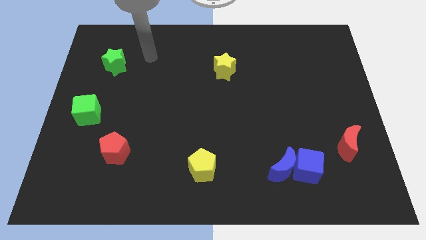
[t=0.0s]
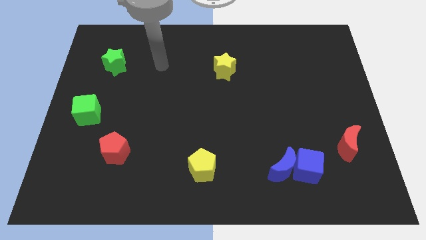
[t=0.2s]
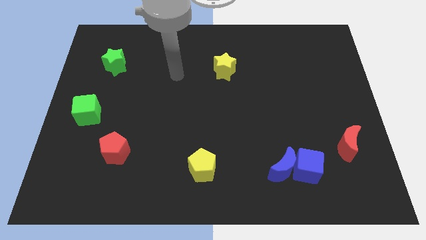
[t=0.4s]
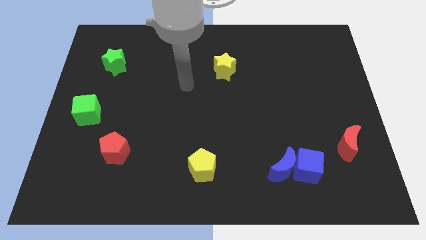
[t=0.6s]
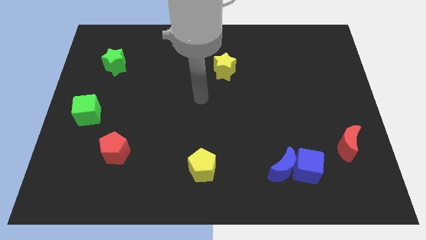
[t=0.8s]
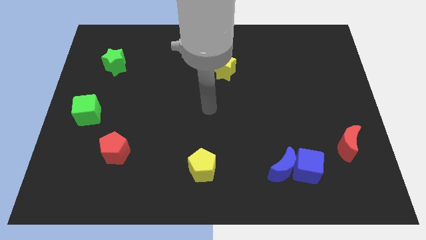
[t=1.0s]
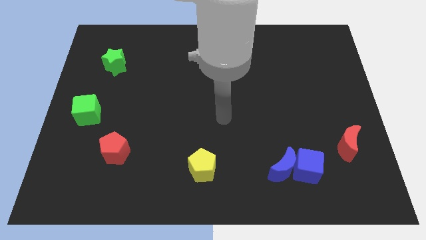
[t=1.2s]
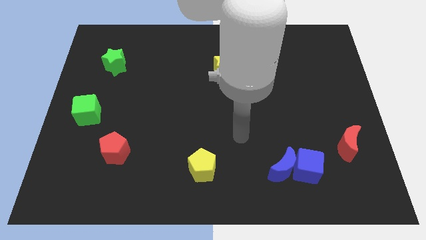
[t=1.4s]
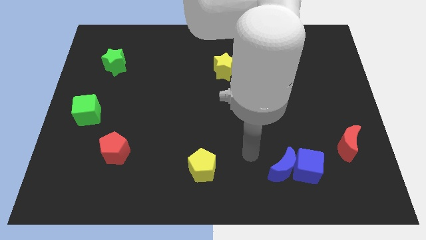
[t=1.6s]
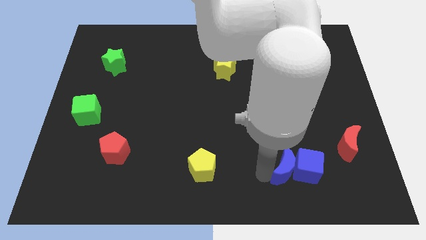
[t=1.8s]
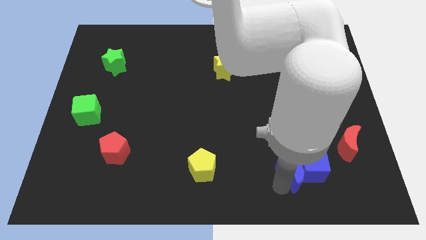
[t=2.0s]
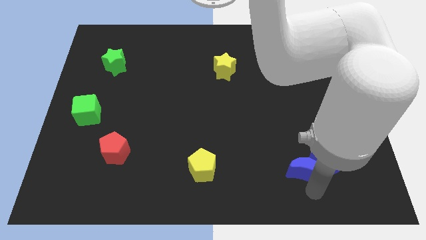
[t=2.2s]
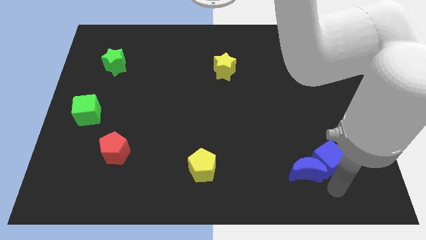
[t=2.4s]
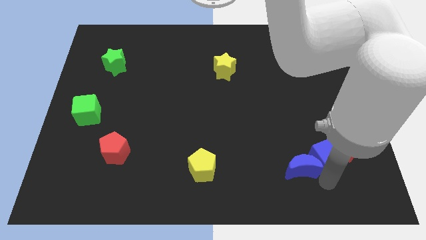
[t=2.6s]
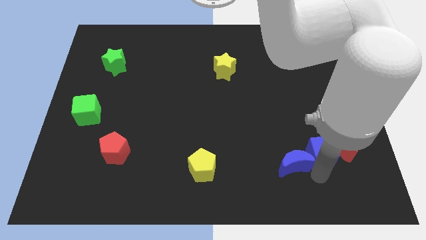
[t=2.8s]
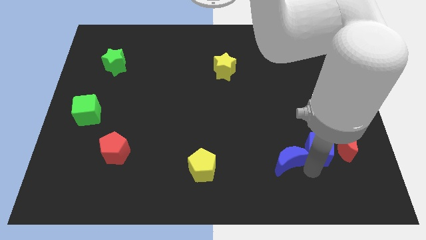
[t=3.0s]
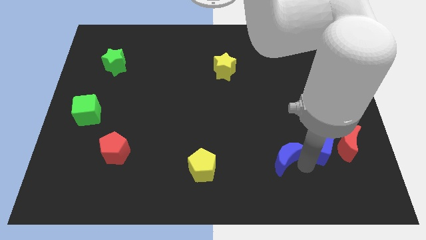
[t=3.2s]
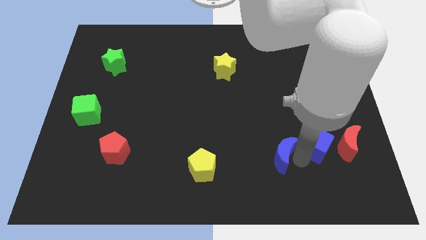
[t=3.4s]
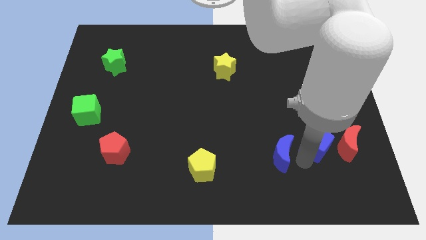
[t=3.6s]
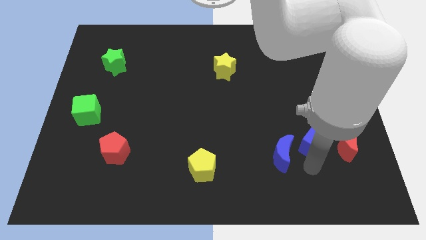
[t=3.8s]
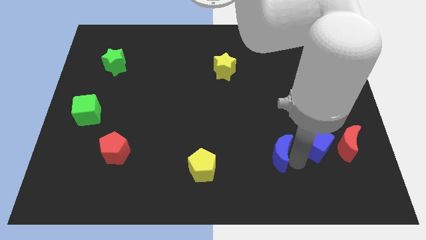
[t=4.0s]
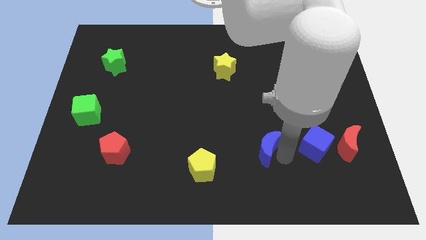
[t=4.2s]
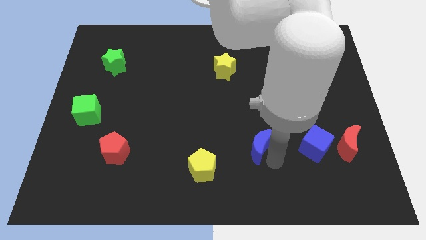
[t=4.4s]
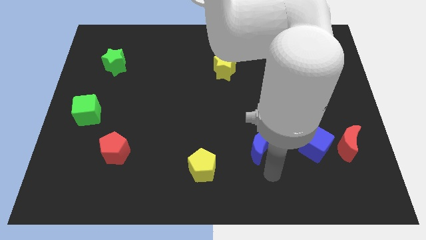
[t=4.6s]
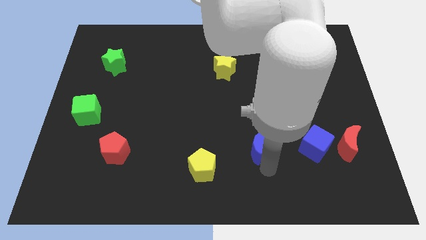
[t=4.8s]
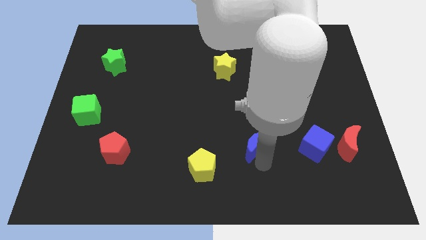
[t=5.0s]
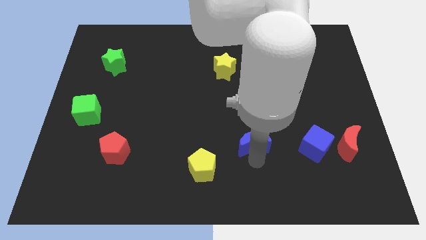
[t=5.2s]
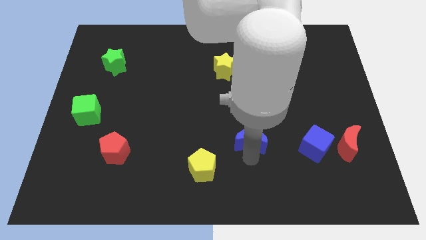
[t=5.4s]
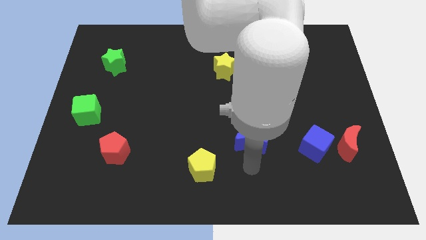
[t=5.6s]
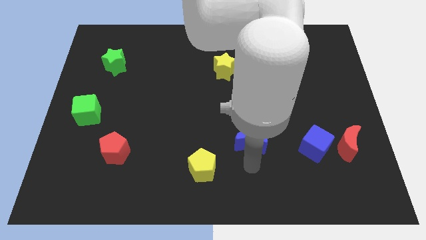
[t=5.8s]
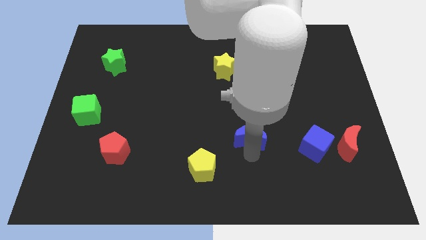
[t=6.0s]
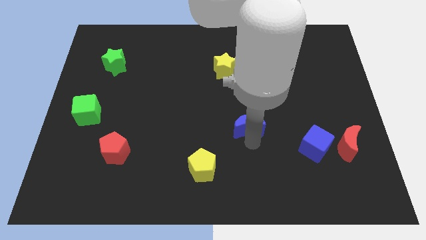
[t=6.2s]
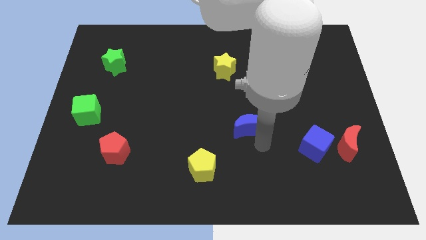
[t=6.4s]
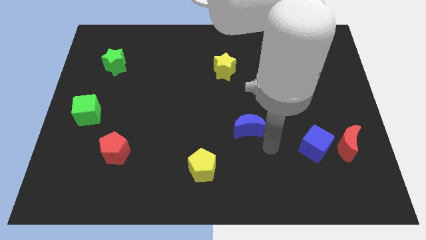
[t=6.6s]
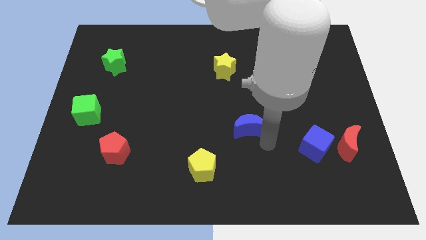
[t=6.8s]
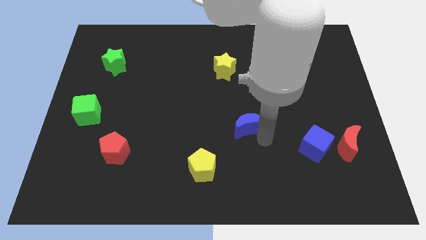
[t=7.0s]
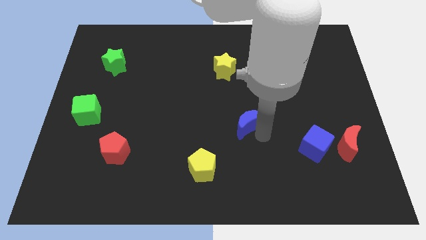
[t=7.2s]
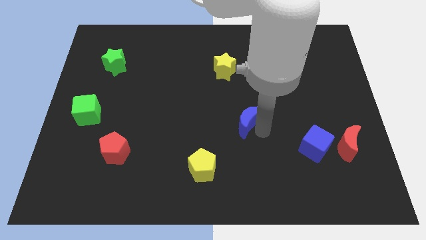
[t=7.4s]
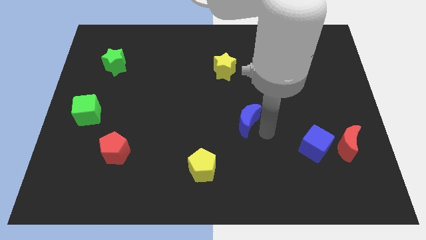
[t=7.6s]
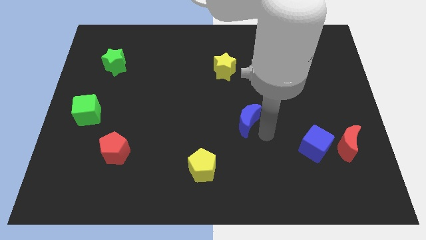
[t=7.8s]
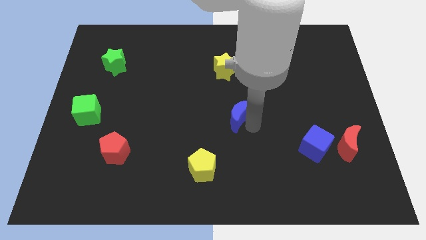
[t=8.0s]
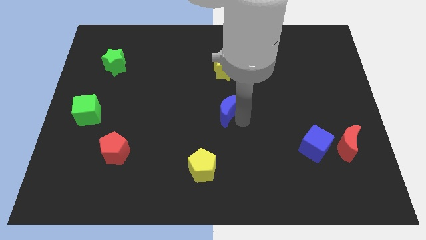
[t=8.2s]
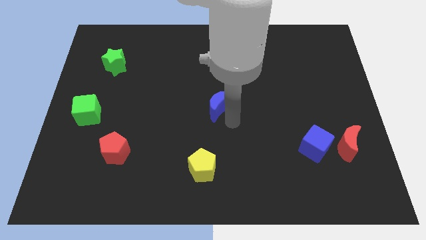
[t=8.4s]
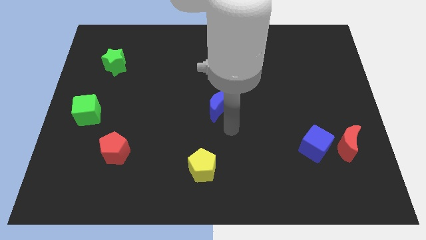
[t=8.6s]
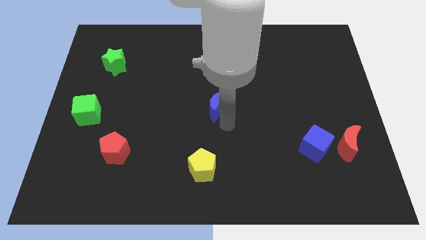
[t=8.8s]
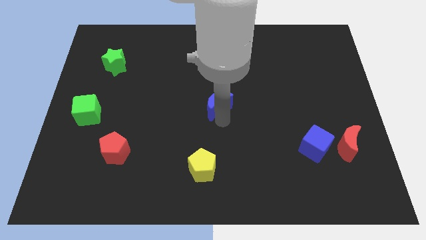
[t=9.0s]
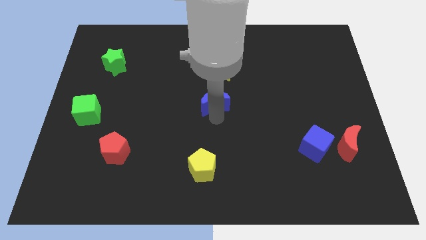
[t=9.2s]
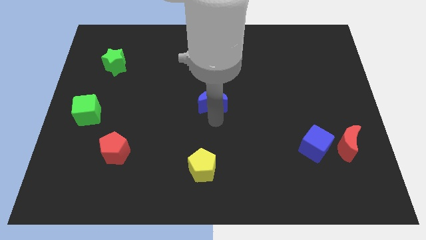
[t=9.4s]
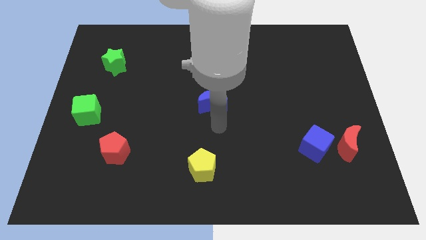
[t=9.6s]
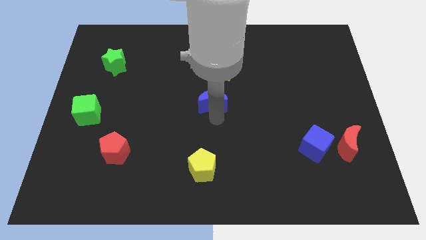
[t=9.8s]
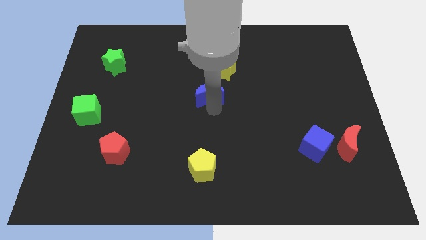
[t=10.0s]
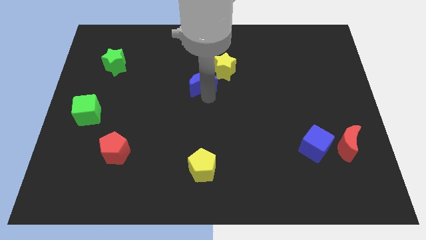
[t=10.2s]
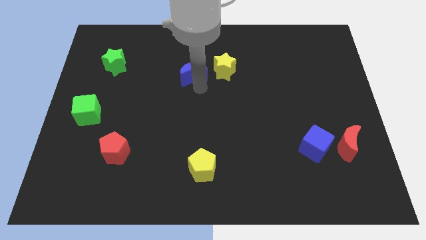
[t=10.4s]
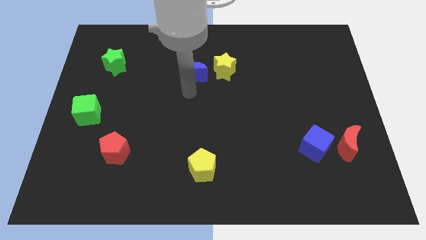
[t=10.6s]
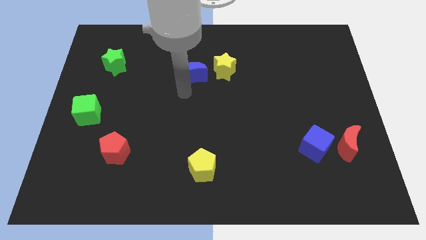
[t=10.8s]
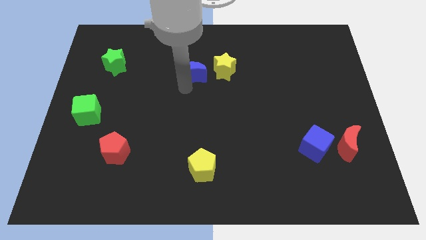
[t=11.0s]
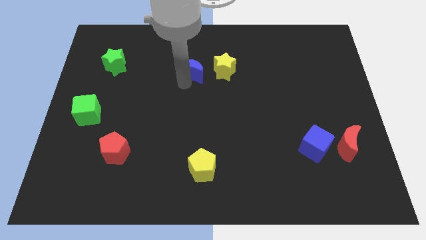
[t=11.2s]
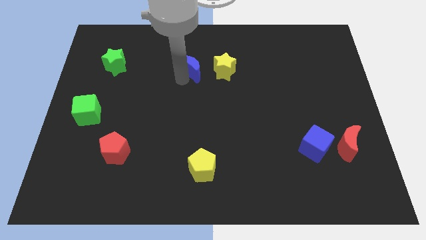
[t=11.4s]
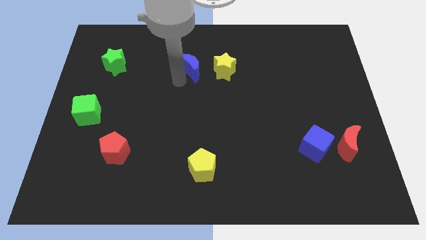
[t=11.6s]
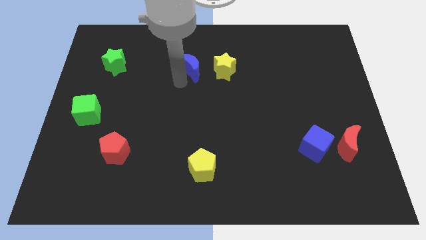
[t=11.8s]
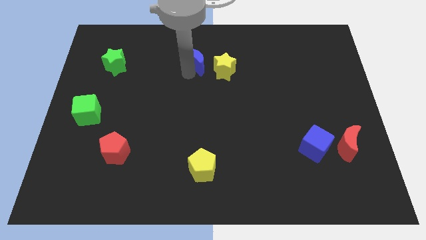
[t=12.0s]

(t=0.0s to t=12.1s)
push the blue moon diagonally up and to the left of the yellow star

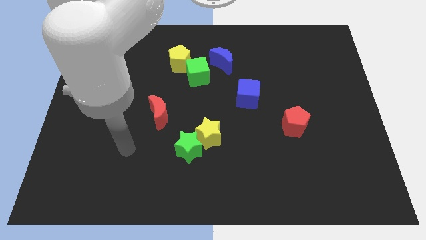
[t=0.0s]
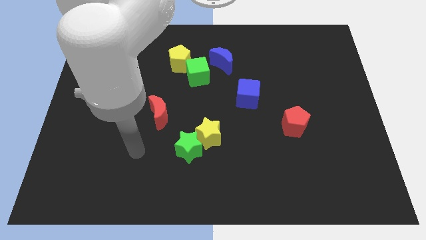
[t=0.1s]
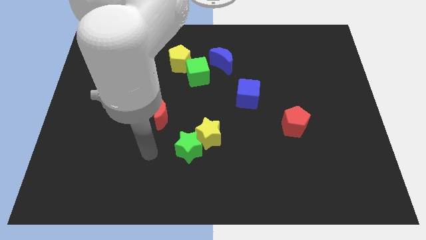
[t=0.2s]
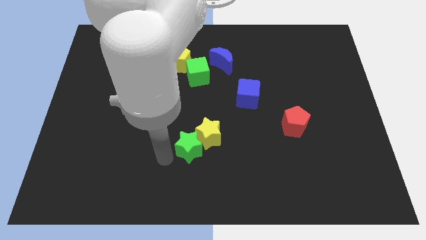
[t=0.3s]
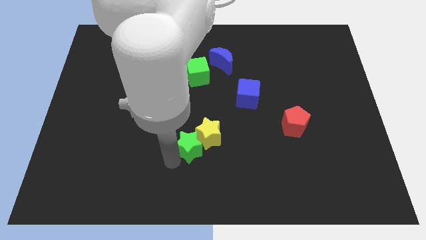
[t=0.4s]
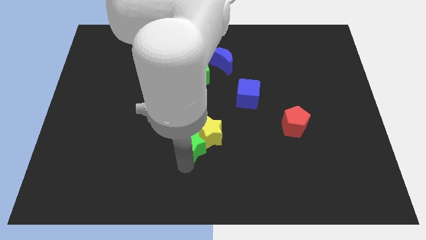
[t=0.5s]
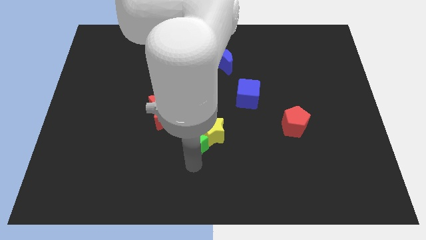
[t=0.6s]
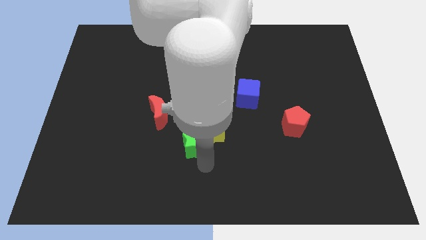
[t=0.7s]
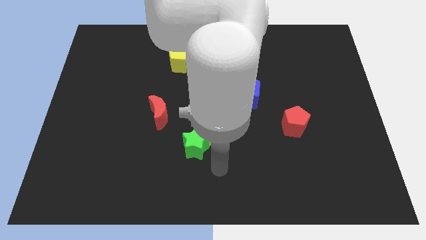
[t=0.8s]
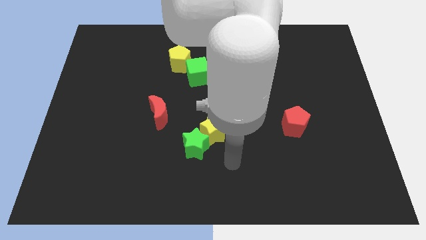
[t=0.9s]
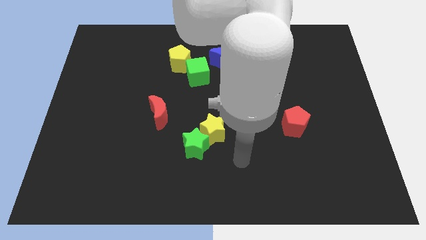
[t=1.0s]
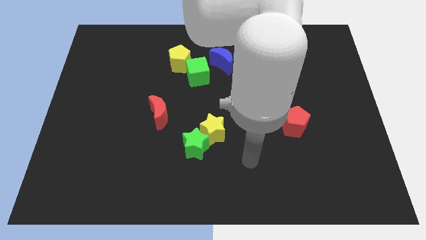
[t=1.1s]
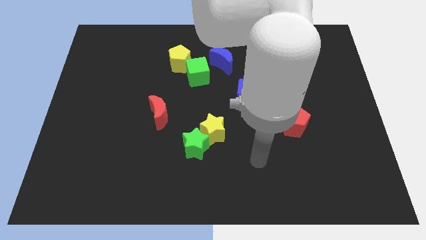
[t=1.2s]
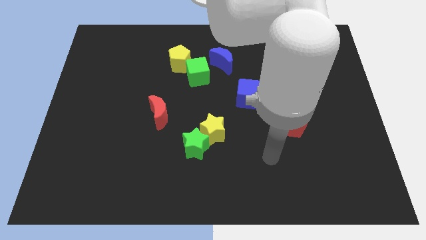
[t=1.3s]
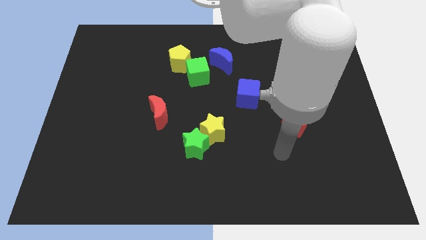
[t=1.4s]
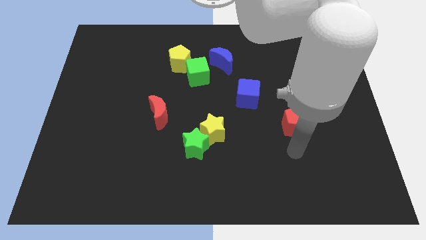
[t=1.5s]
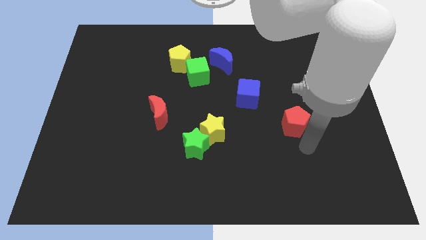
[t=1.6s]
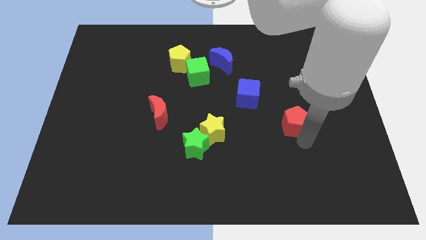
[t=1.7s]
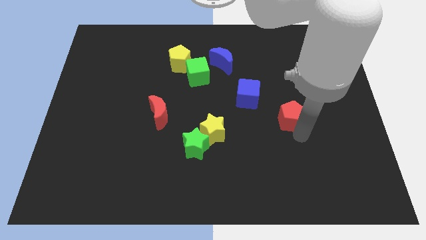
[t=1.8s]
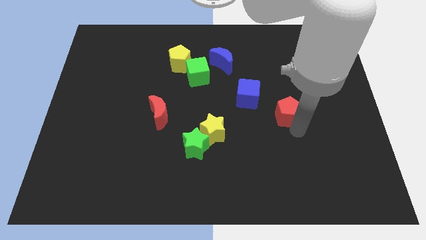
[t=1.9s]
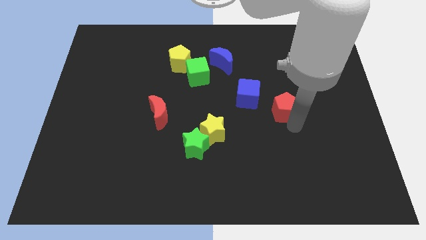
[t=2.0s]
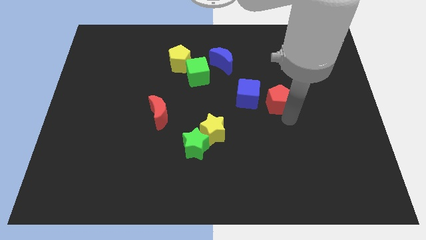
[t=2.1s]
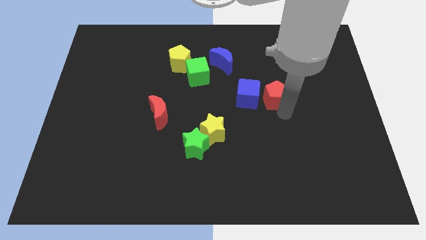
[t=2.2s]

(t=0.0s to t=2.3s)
slide the red pentagon to the top right of the blue cube
